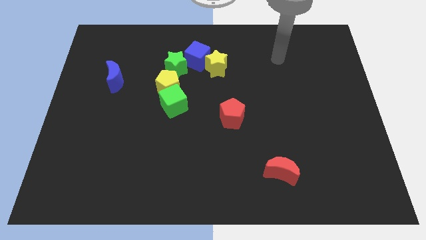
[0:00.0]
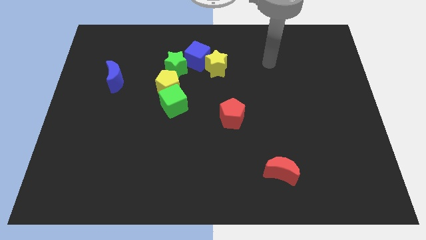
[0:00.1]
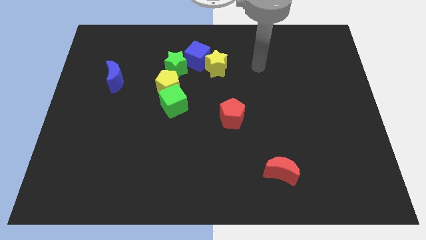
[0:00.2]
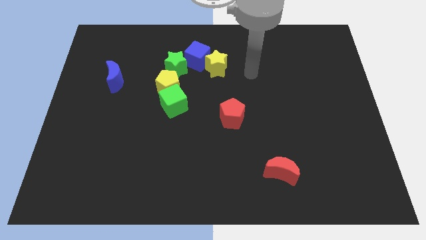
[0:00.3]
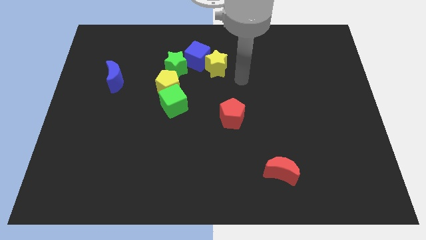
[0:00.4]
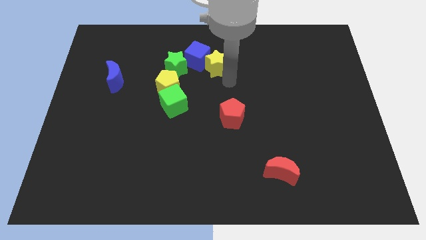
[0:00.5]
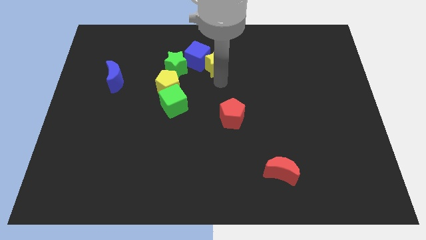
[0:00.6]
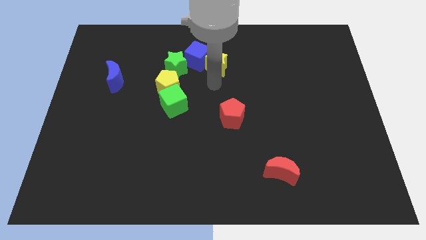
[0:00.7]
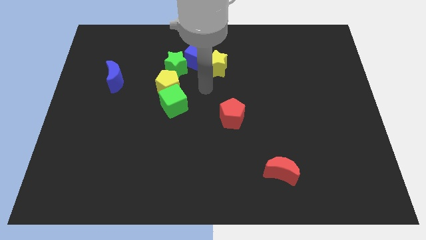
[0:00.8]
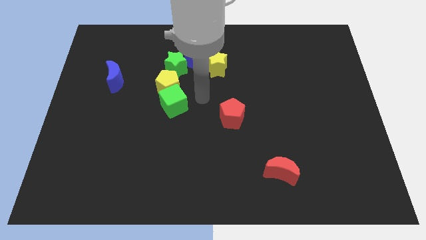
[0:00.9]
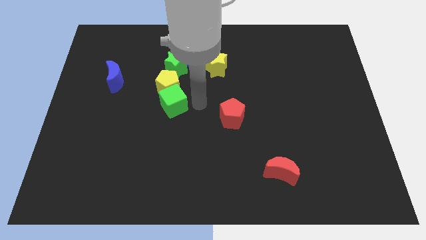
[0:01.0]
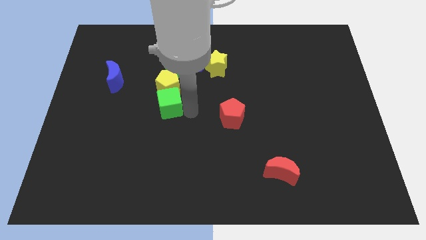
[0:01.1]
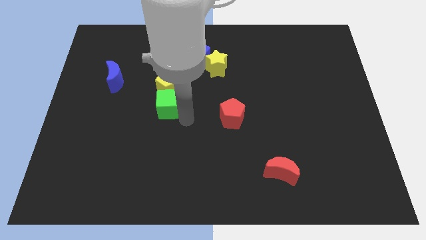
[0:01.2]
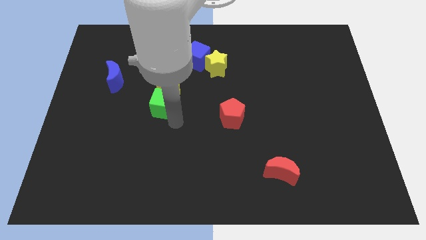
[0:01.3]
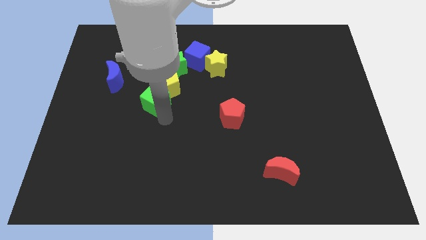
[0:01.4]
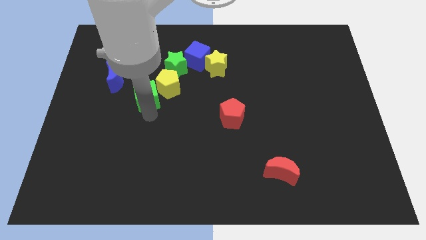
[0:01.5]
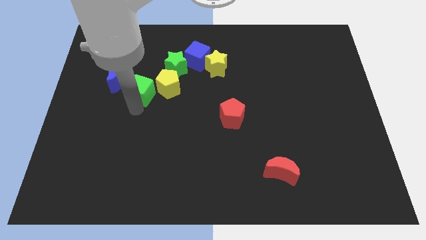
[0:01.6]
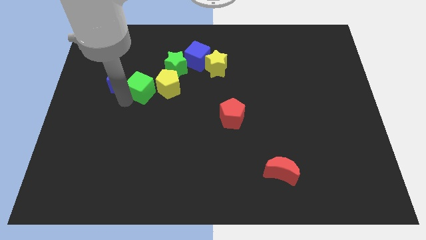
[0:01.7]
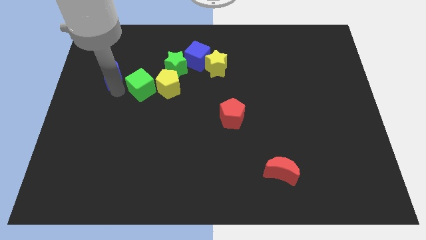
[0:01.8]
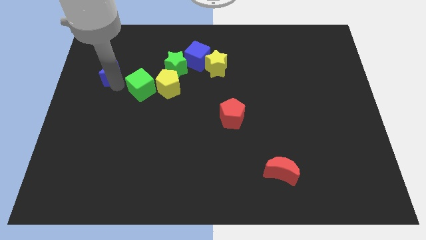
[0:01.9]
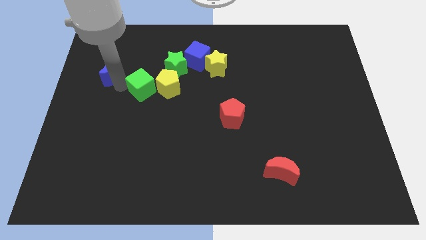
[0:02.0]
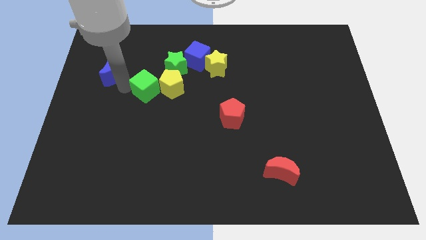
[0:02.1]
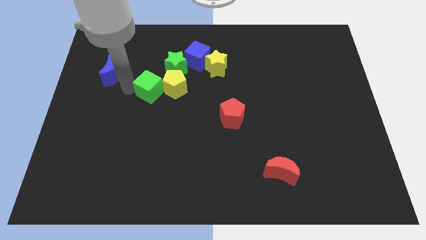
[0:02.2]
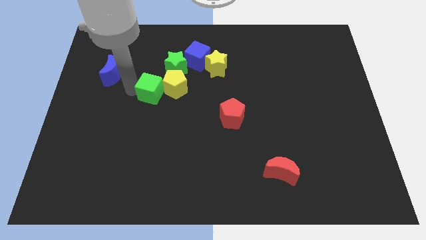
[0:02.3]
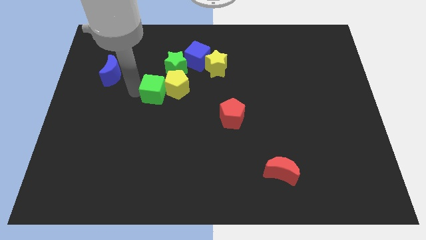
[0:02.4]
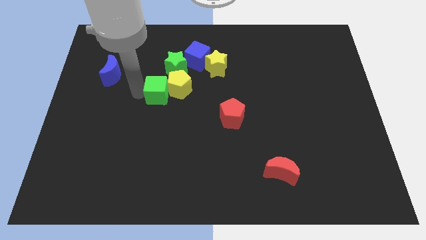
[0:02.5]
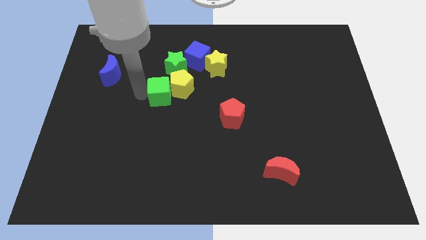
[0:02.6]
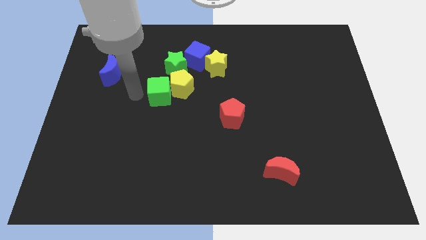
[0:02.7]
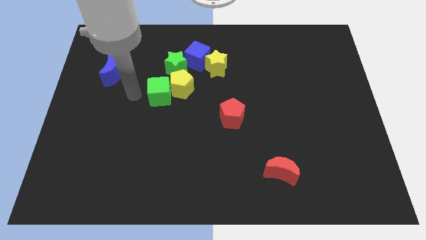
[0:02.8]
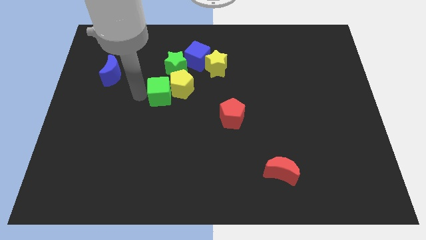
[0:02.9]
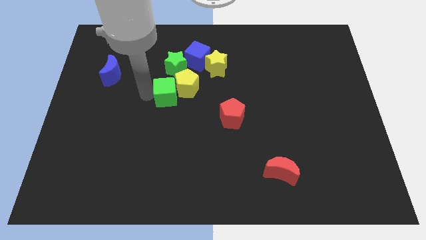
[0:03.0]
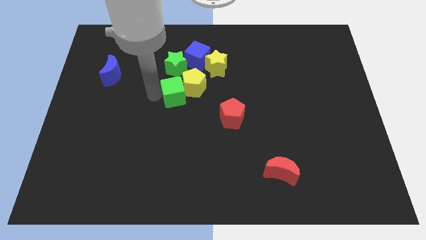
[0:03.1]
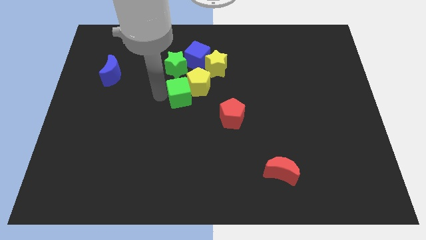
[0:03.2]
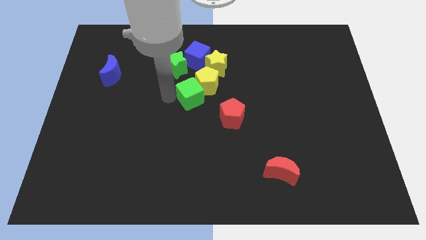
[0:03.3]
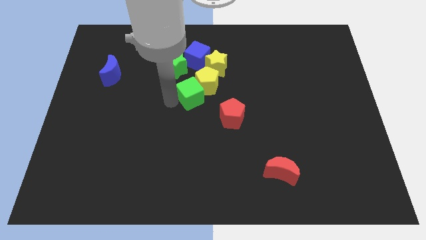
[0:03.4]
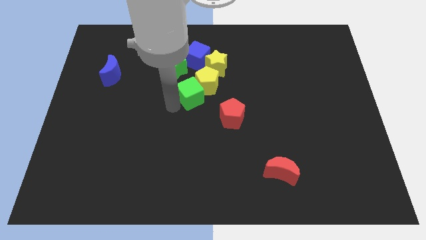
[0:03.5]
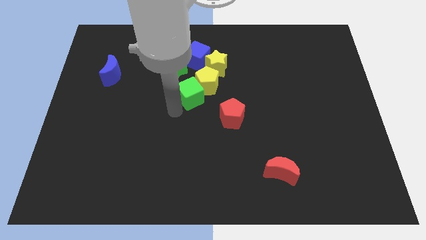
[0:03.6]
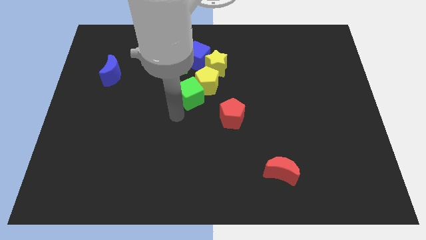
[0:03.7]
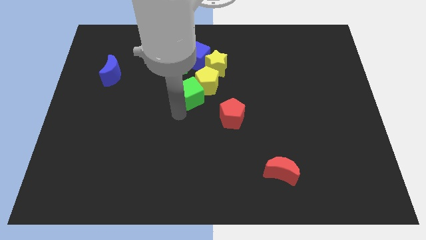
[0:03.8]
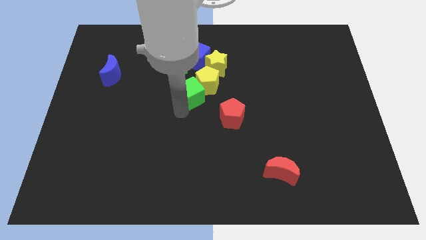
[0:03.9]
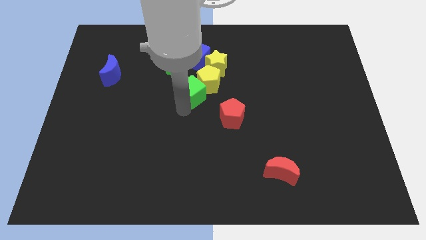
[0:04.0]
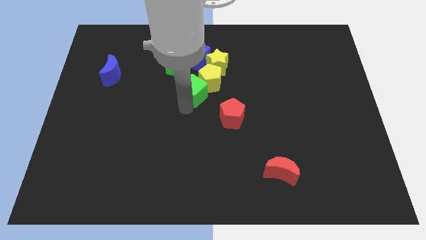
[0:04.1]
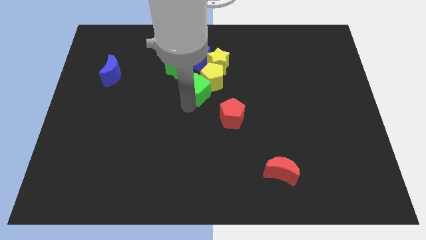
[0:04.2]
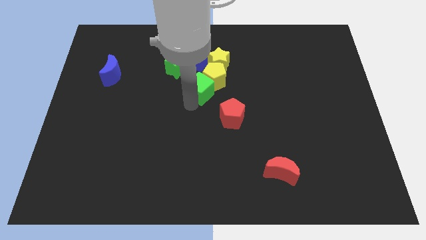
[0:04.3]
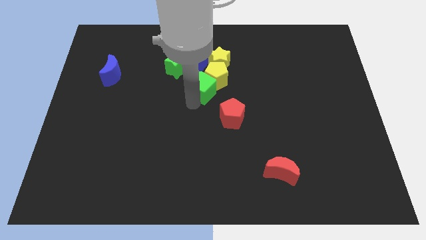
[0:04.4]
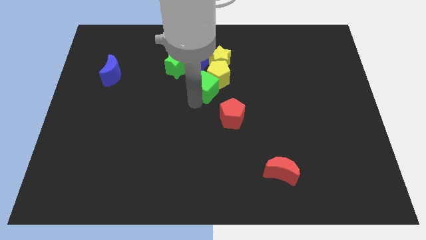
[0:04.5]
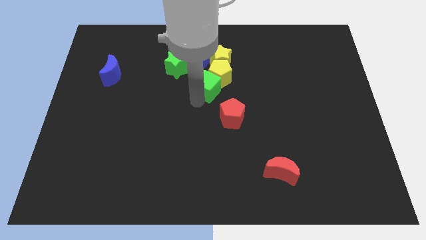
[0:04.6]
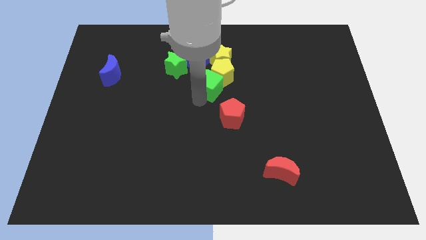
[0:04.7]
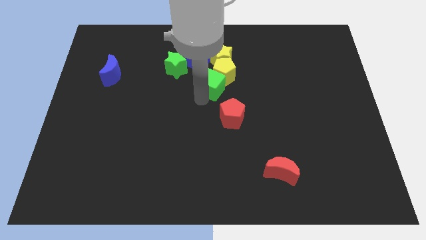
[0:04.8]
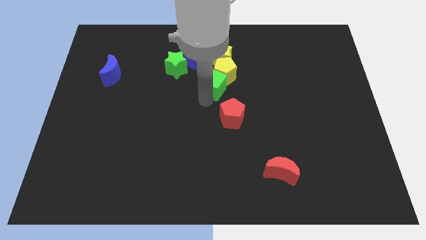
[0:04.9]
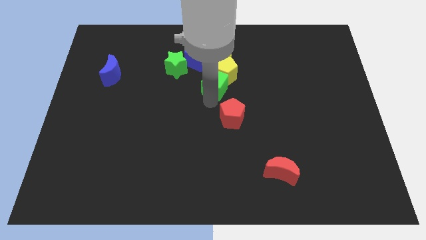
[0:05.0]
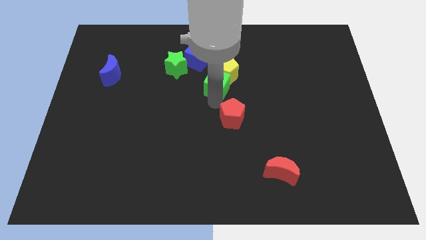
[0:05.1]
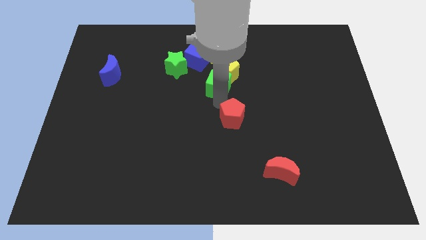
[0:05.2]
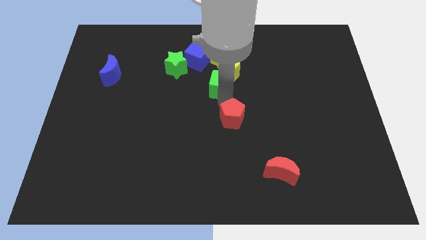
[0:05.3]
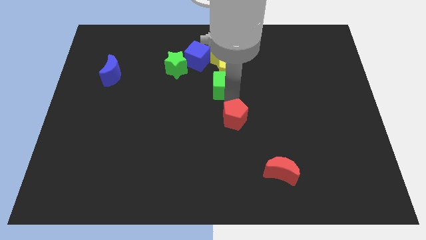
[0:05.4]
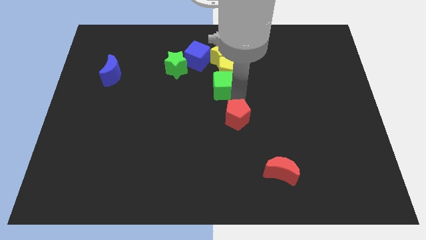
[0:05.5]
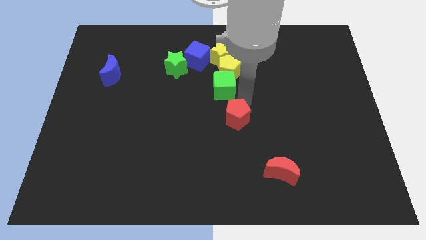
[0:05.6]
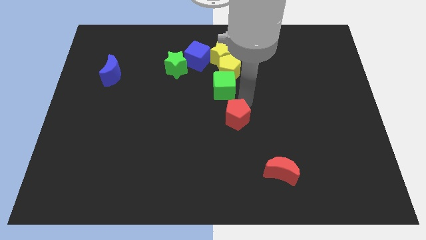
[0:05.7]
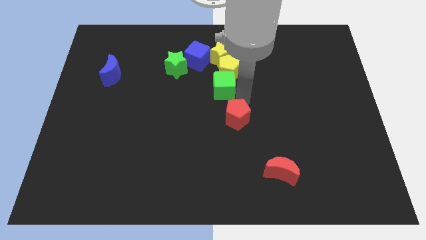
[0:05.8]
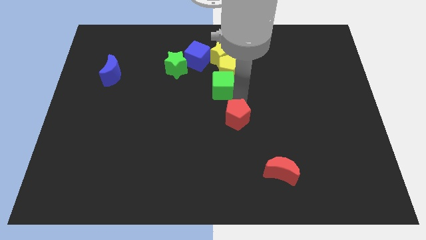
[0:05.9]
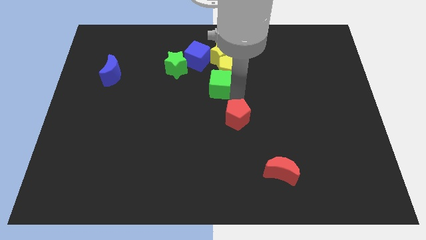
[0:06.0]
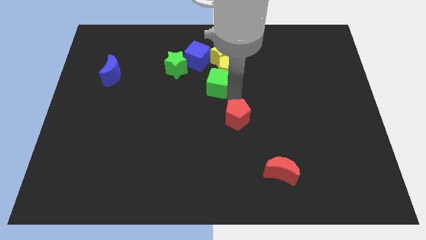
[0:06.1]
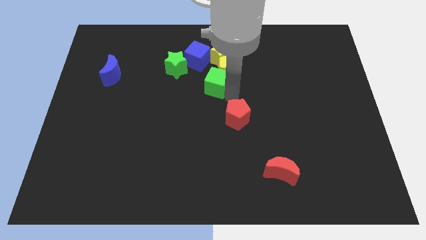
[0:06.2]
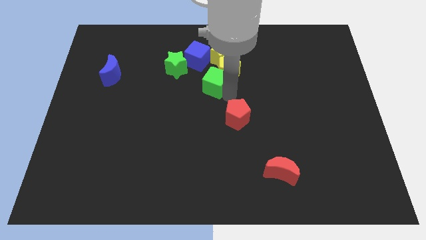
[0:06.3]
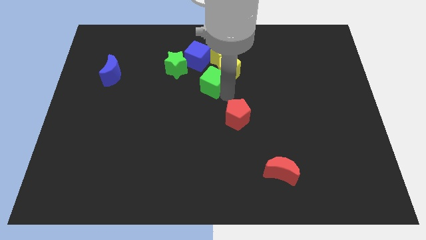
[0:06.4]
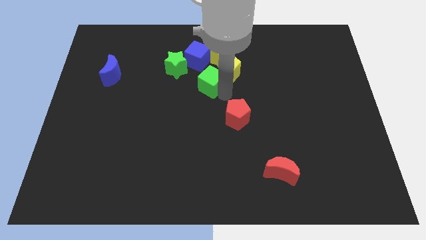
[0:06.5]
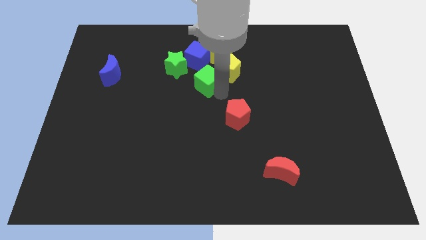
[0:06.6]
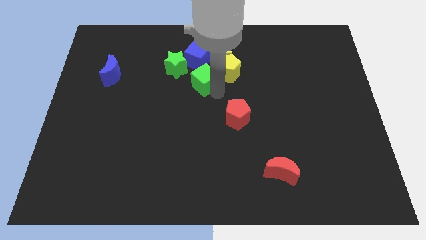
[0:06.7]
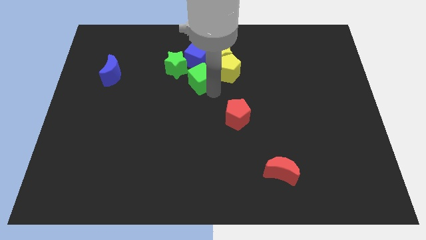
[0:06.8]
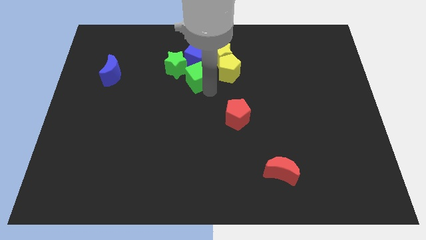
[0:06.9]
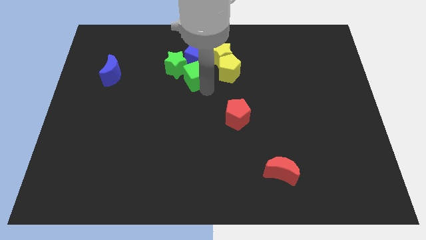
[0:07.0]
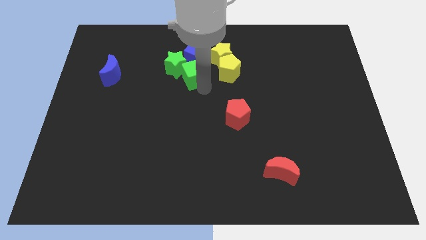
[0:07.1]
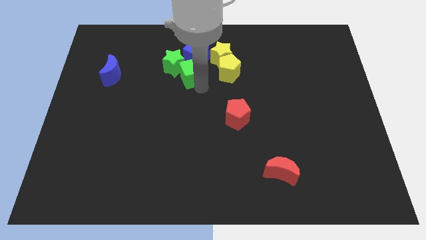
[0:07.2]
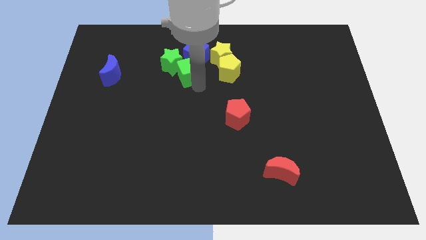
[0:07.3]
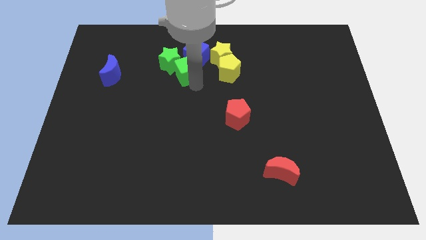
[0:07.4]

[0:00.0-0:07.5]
slide the green cube close to the blue cube
